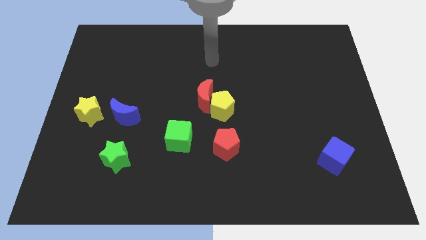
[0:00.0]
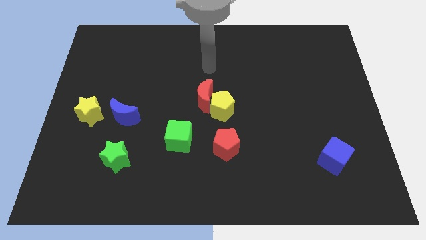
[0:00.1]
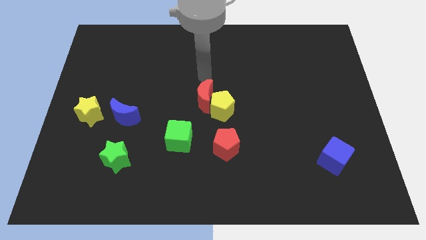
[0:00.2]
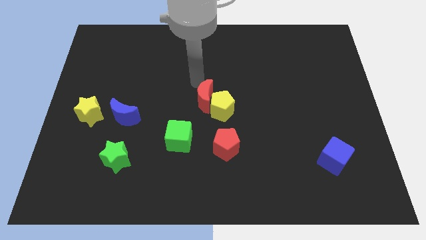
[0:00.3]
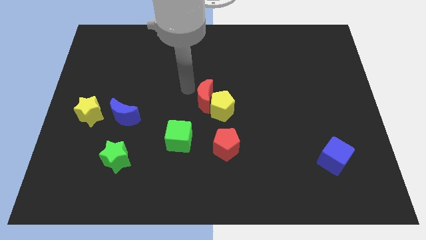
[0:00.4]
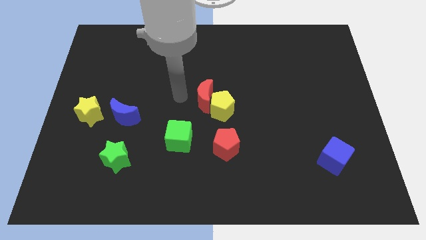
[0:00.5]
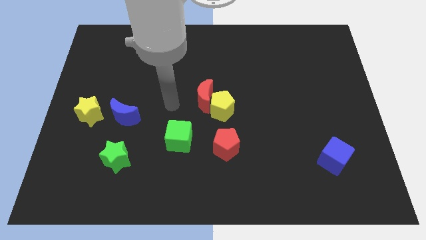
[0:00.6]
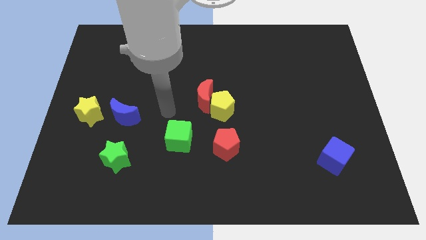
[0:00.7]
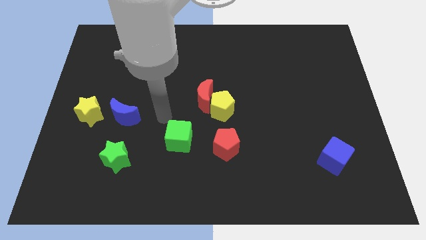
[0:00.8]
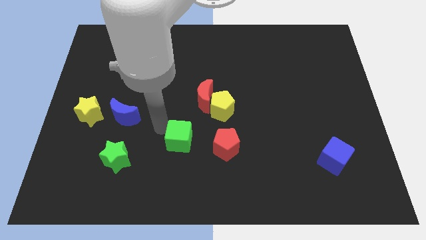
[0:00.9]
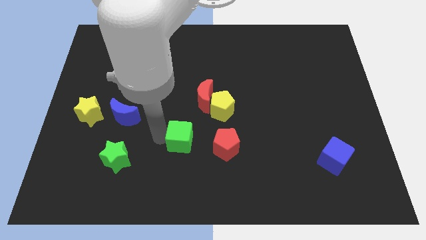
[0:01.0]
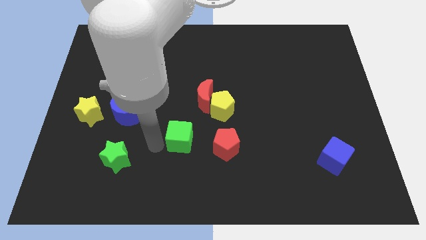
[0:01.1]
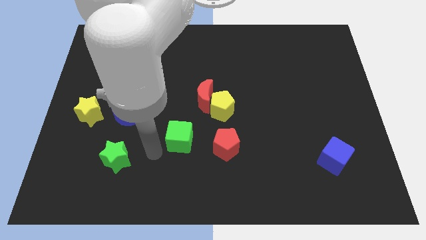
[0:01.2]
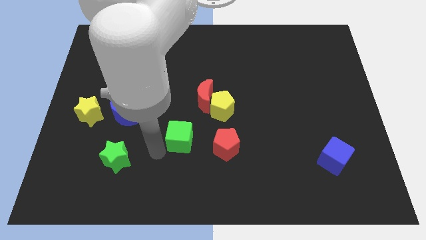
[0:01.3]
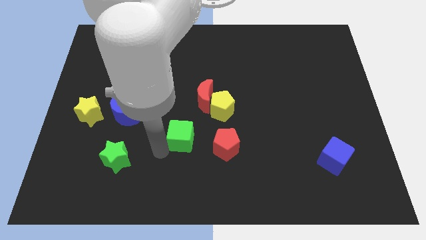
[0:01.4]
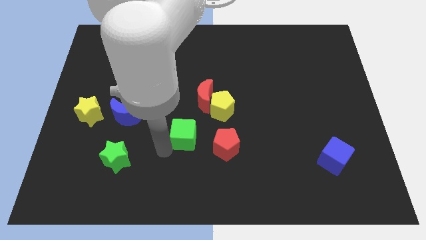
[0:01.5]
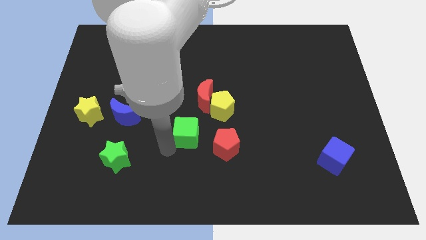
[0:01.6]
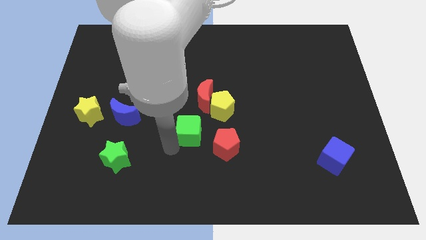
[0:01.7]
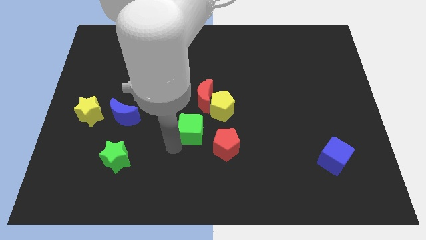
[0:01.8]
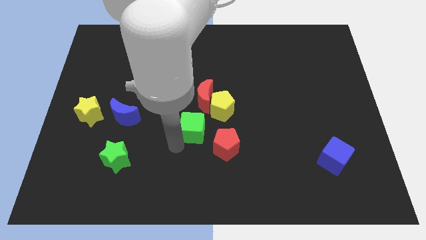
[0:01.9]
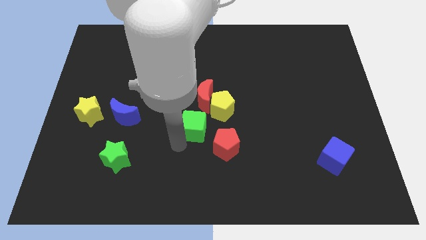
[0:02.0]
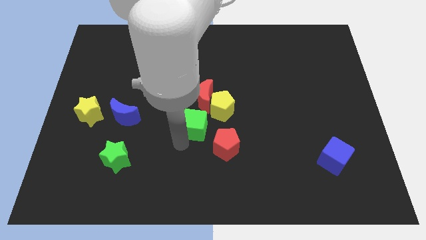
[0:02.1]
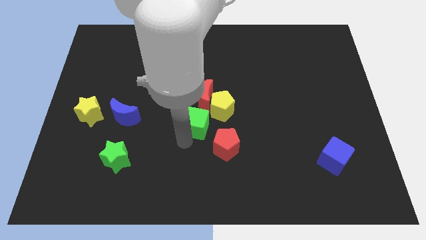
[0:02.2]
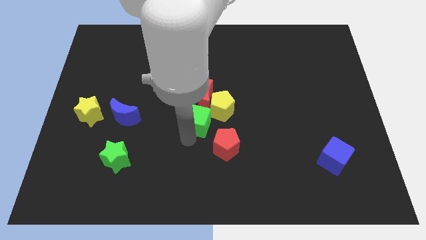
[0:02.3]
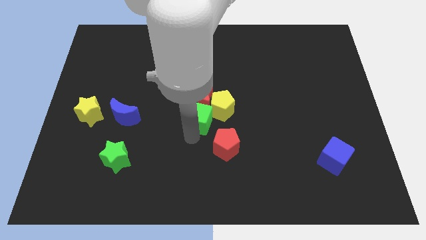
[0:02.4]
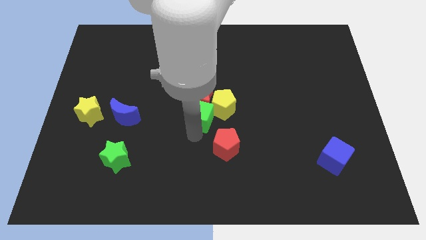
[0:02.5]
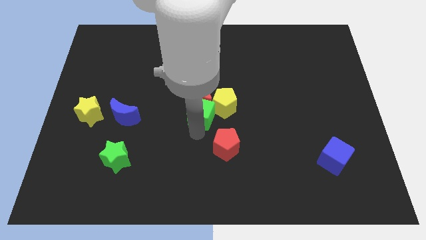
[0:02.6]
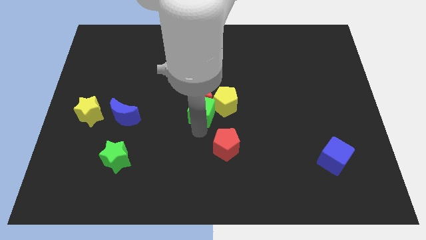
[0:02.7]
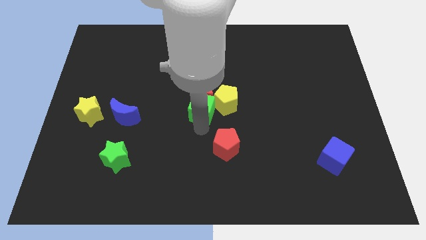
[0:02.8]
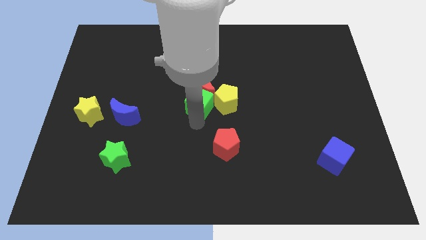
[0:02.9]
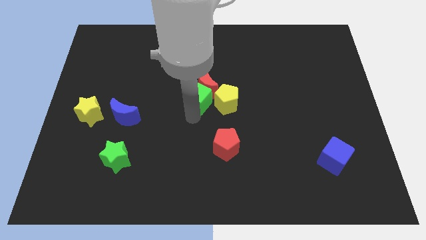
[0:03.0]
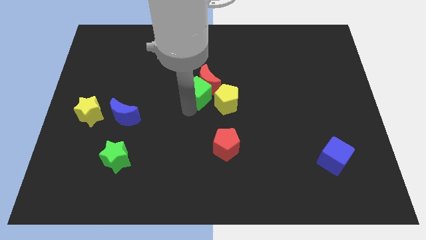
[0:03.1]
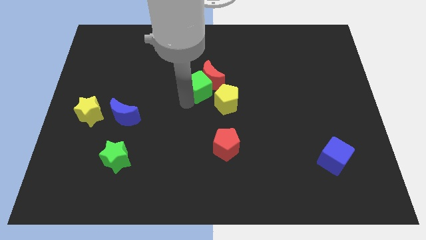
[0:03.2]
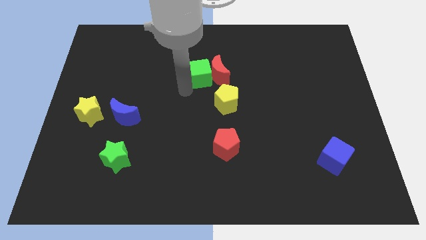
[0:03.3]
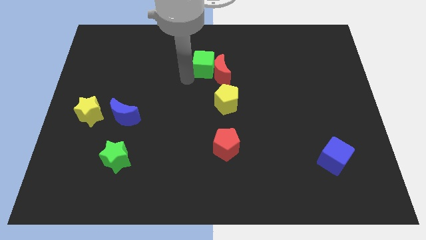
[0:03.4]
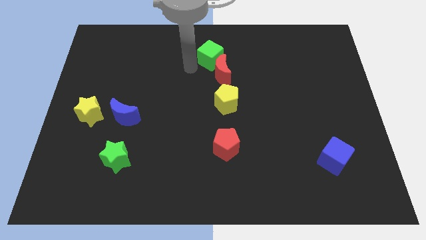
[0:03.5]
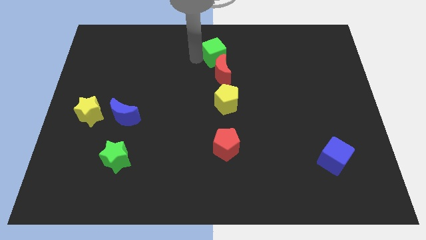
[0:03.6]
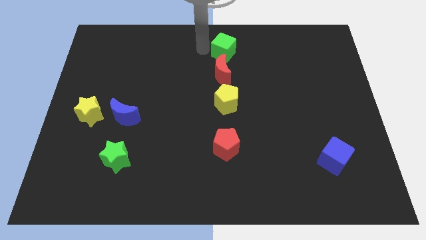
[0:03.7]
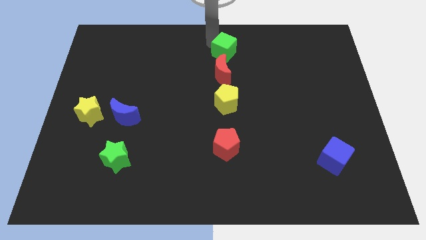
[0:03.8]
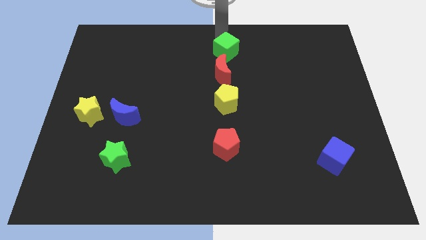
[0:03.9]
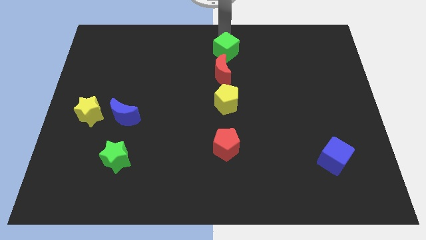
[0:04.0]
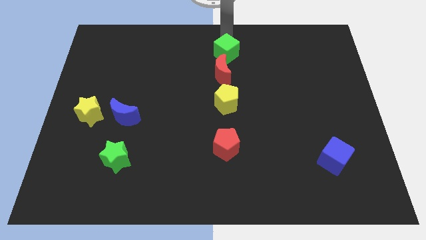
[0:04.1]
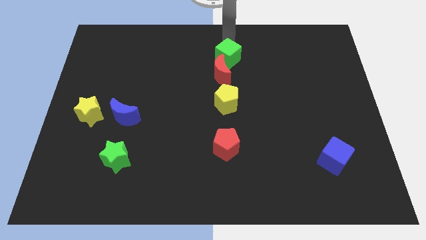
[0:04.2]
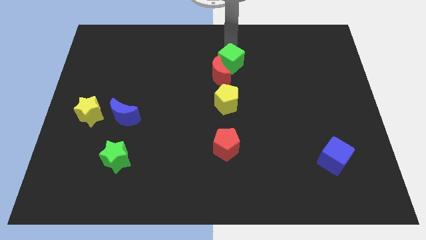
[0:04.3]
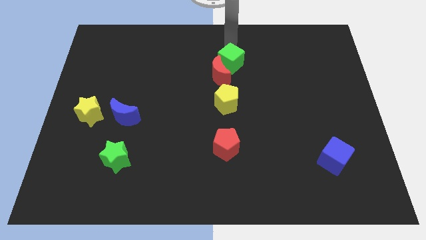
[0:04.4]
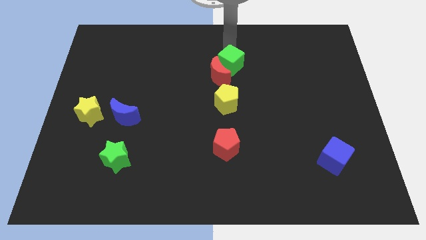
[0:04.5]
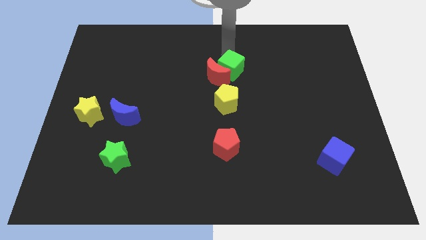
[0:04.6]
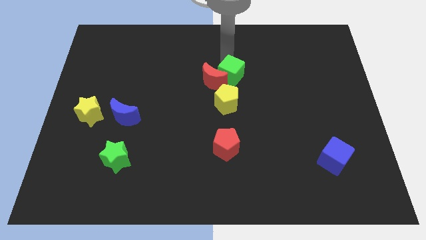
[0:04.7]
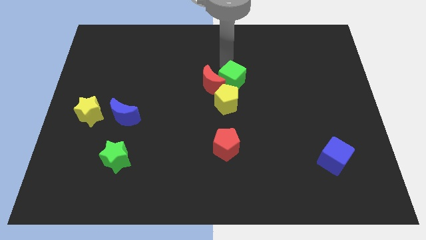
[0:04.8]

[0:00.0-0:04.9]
put the green cube to the top right of the yellow pentagon

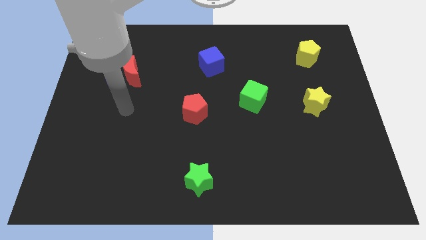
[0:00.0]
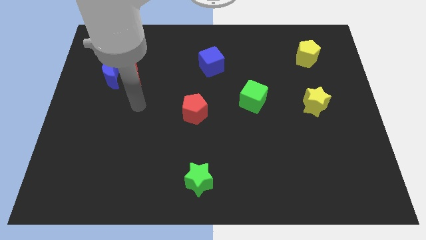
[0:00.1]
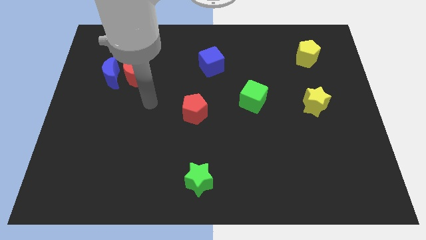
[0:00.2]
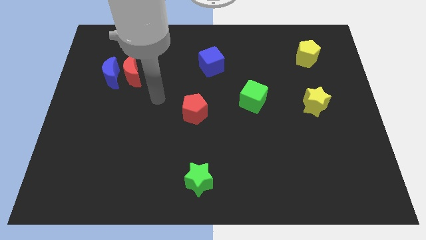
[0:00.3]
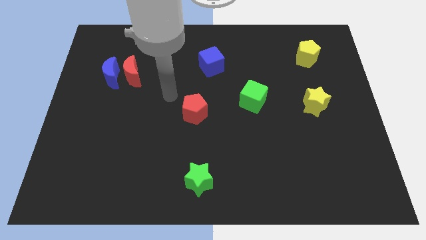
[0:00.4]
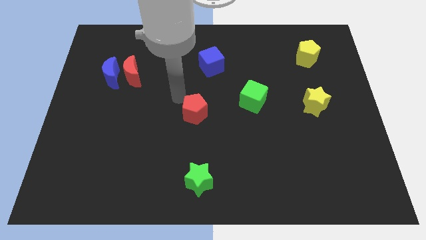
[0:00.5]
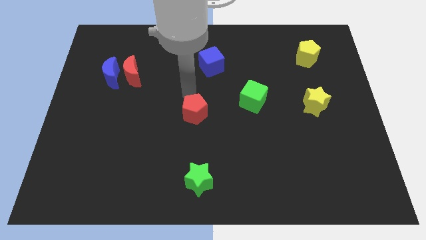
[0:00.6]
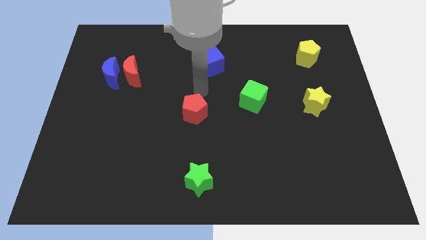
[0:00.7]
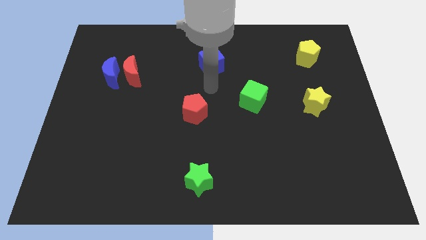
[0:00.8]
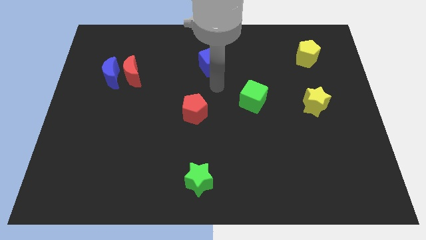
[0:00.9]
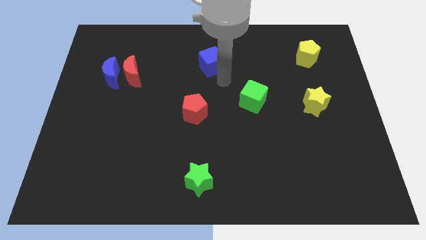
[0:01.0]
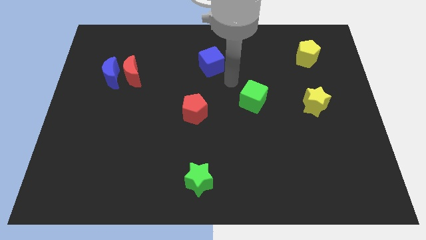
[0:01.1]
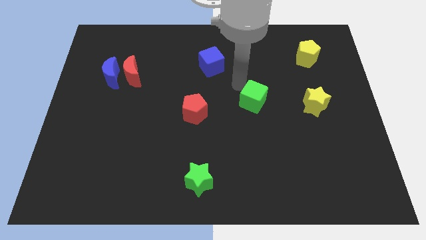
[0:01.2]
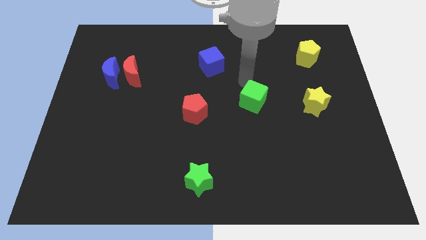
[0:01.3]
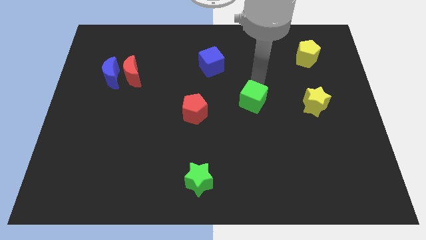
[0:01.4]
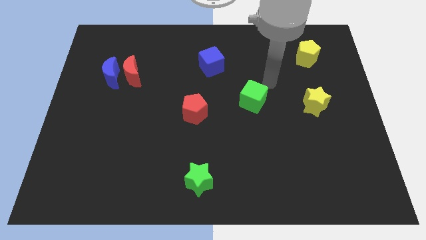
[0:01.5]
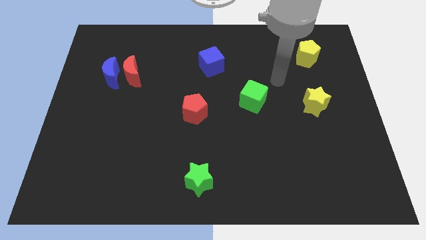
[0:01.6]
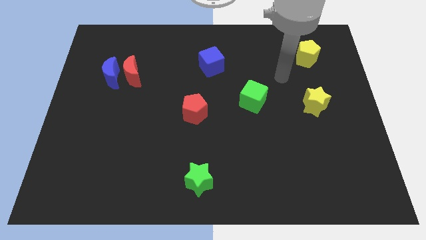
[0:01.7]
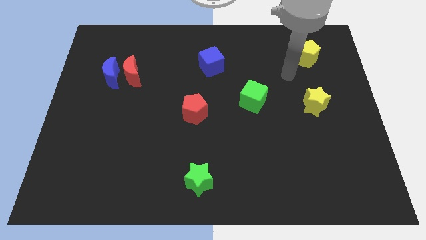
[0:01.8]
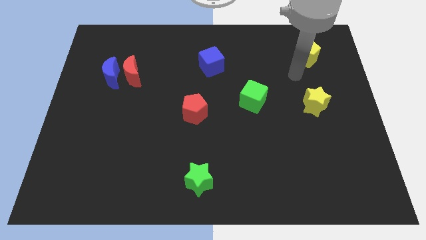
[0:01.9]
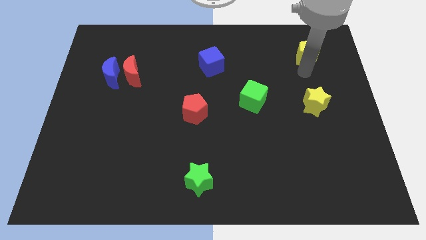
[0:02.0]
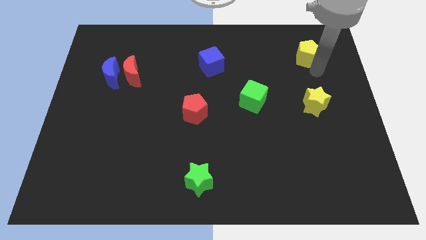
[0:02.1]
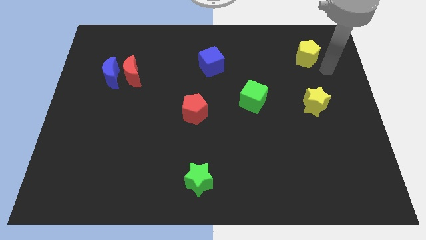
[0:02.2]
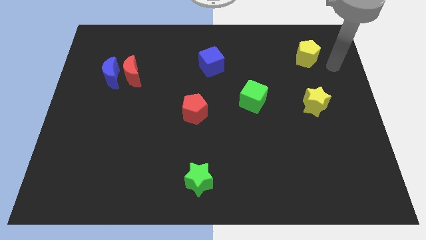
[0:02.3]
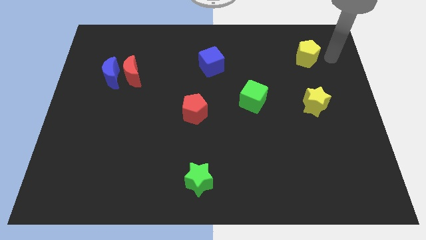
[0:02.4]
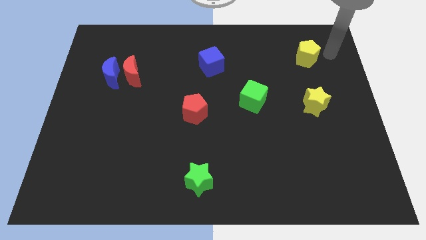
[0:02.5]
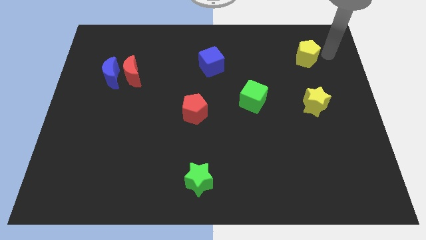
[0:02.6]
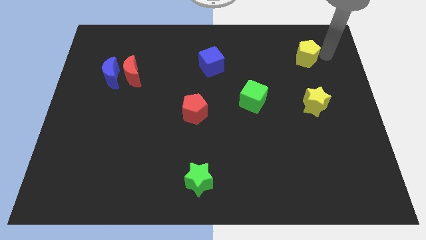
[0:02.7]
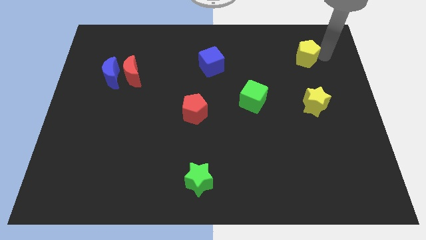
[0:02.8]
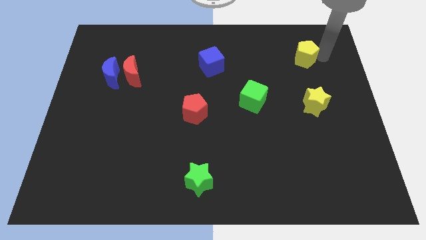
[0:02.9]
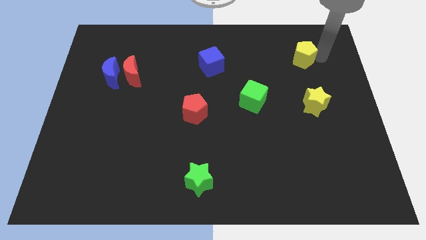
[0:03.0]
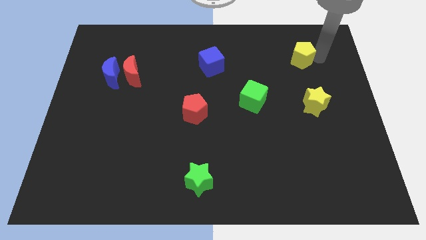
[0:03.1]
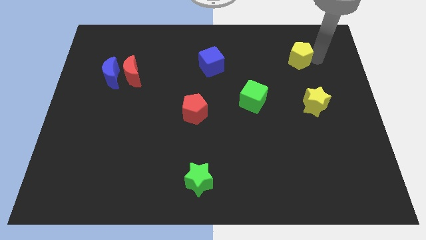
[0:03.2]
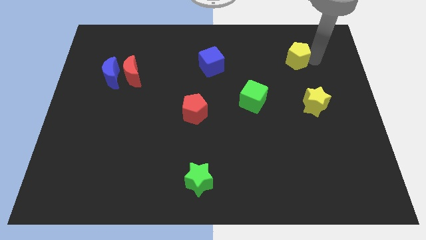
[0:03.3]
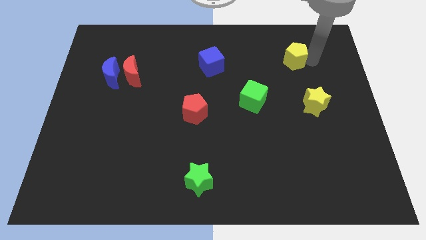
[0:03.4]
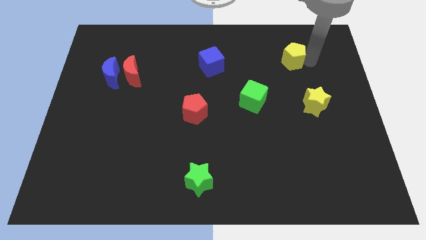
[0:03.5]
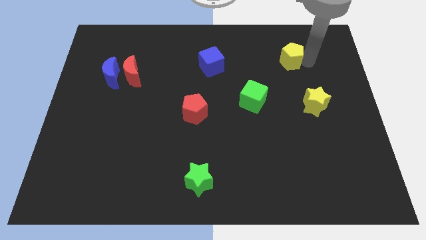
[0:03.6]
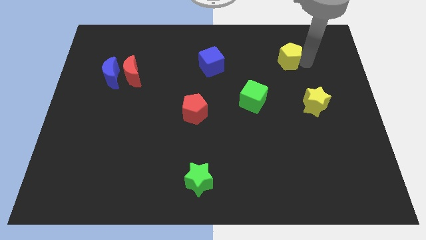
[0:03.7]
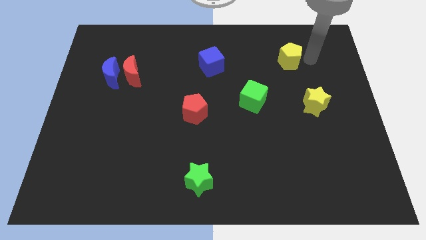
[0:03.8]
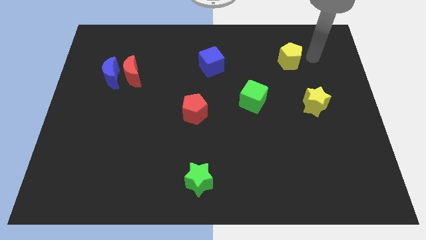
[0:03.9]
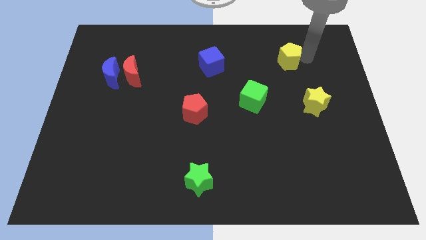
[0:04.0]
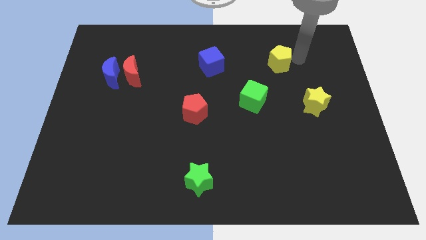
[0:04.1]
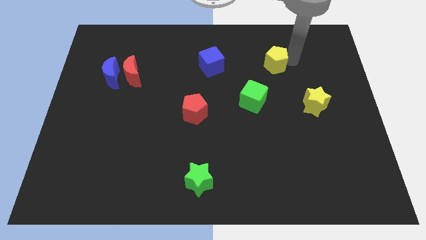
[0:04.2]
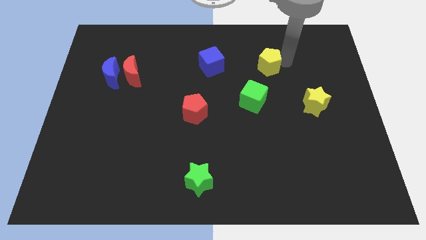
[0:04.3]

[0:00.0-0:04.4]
slide the yellow pentagon to the right side of the blue cube
